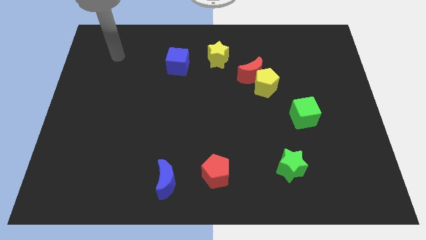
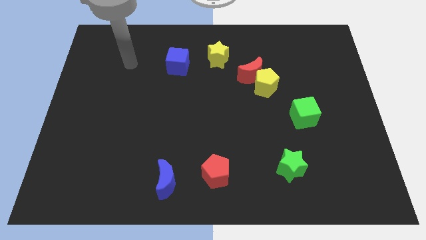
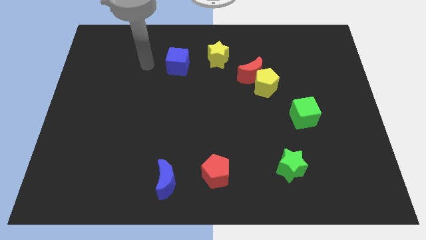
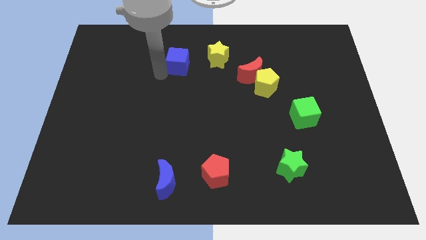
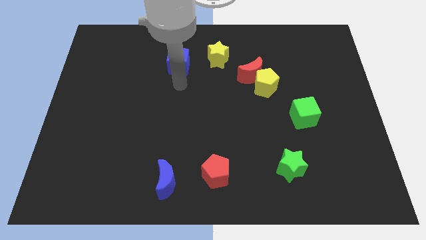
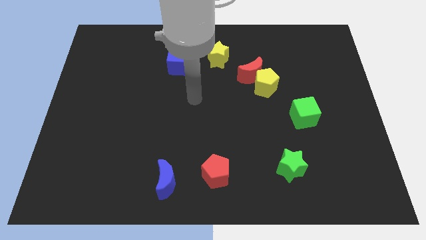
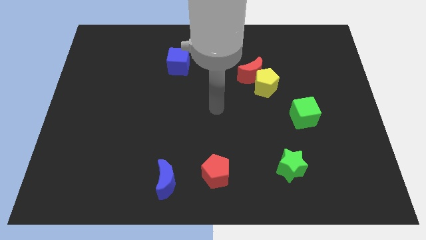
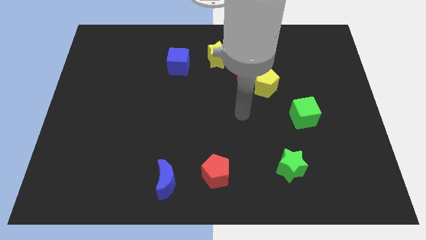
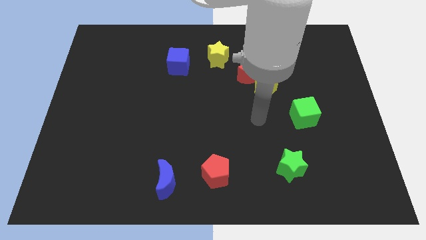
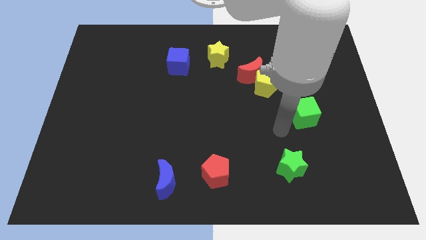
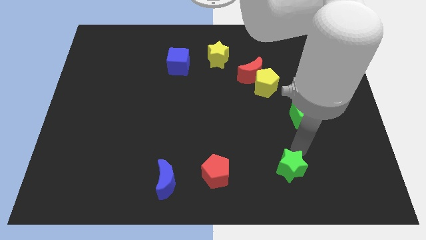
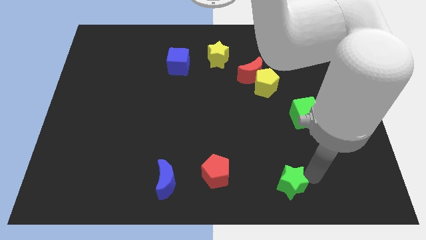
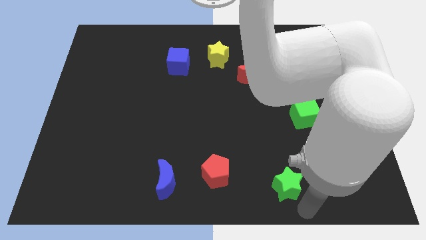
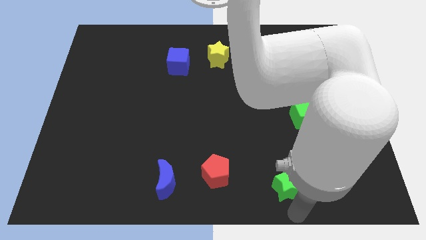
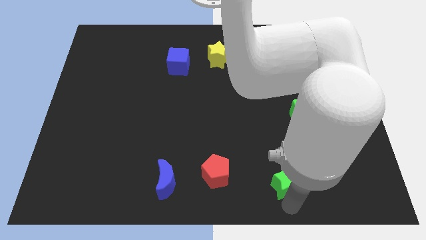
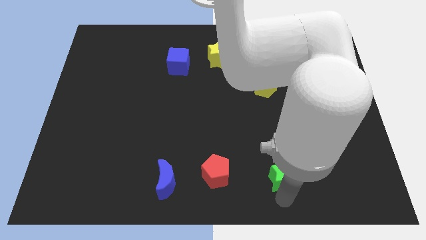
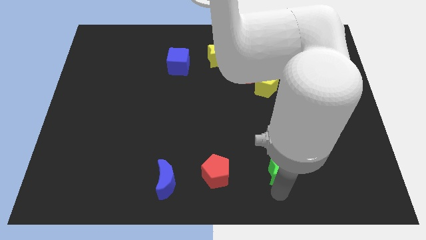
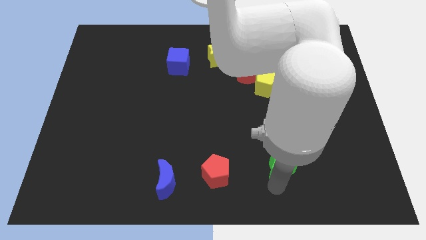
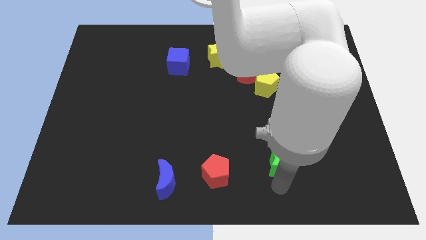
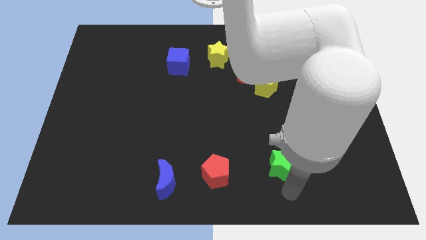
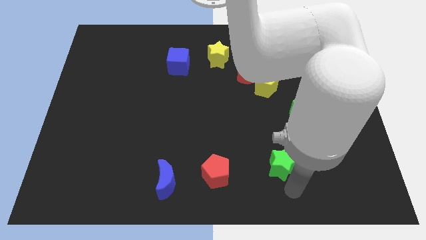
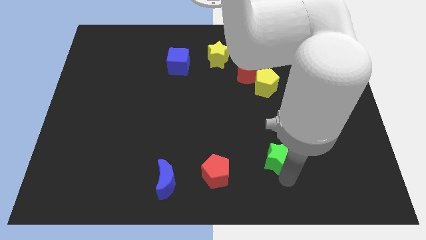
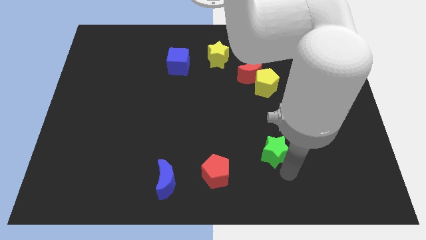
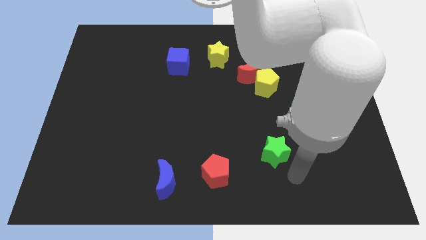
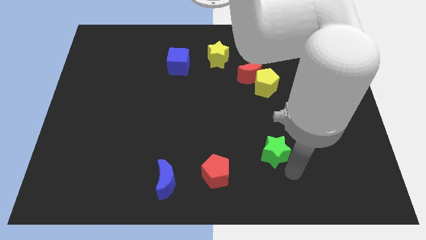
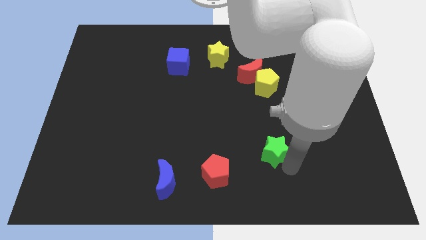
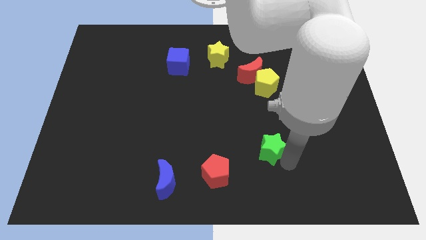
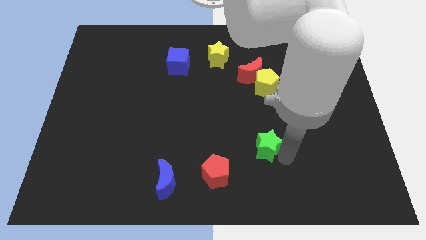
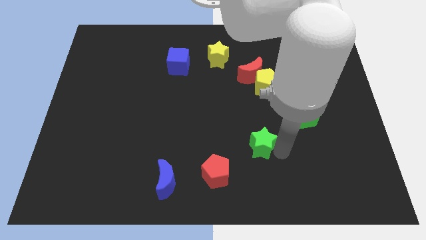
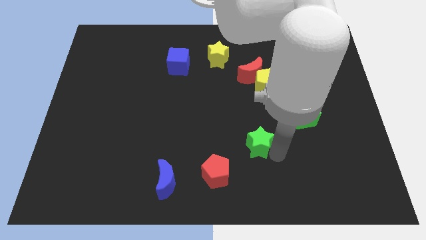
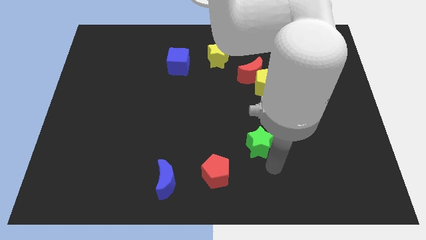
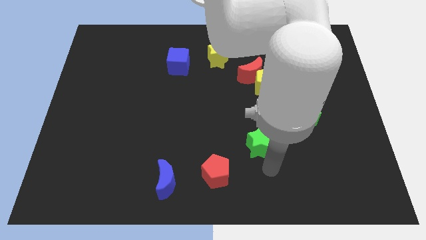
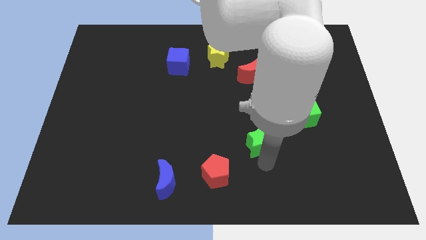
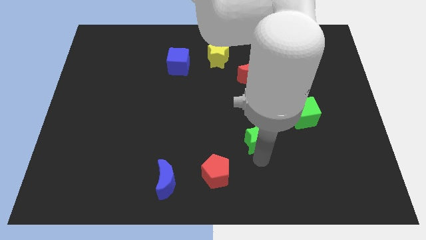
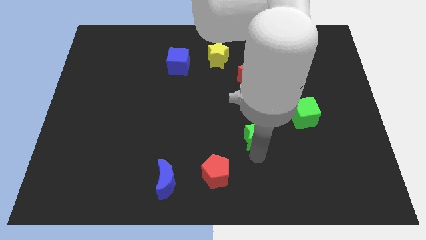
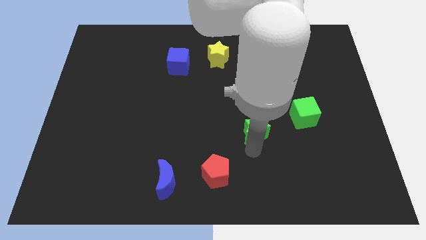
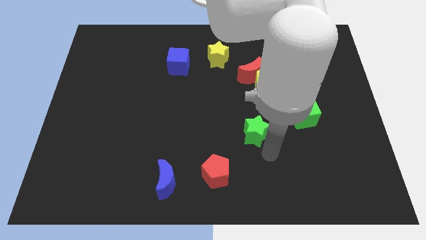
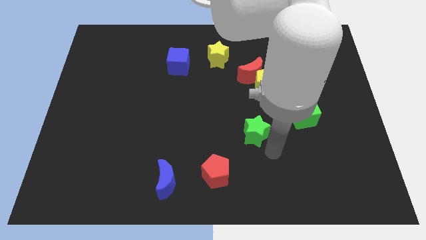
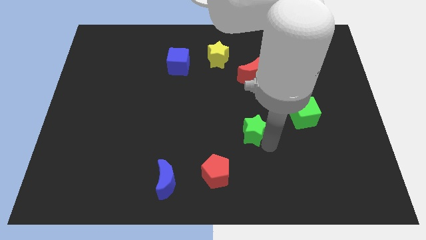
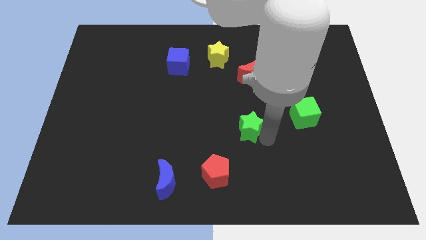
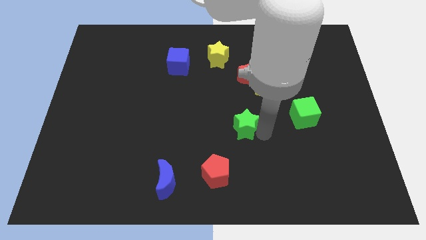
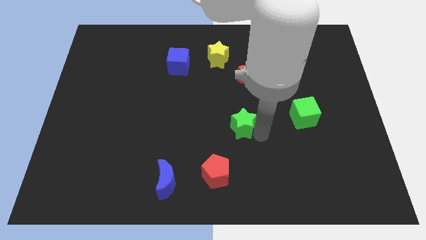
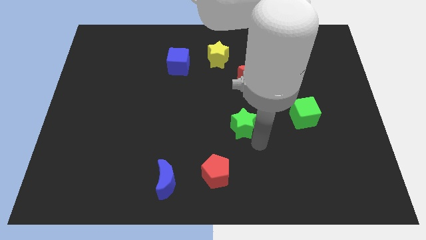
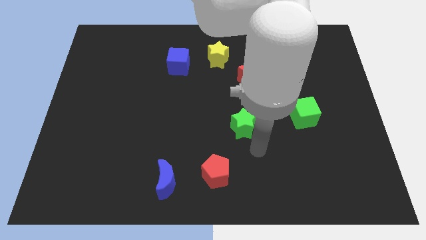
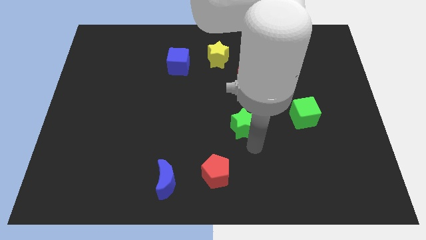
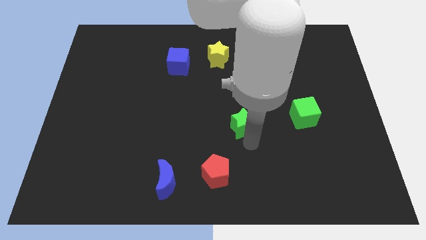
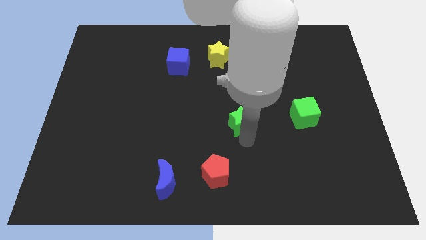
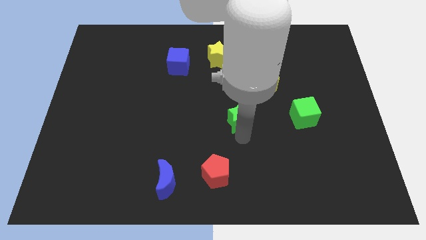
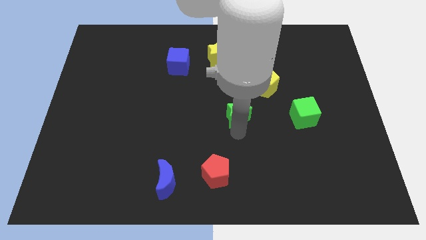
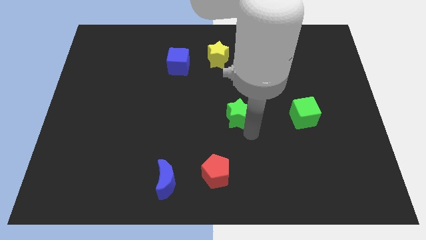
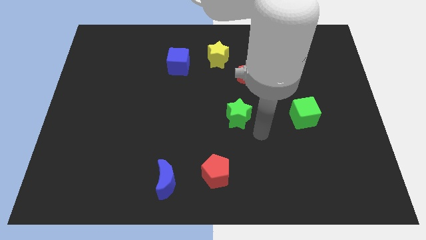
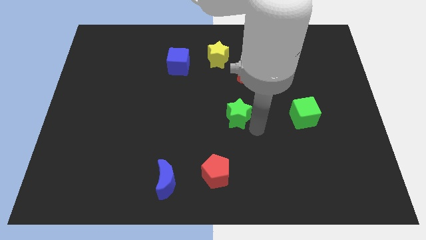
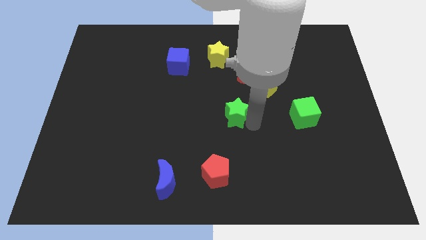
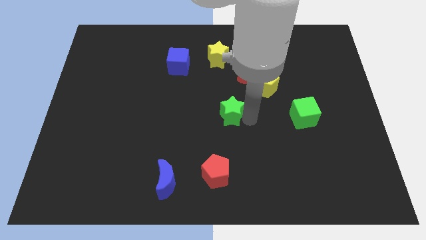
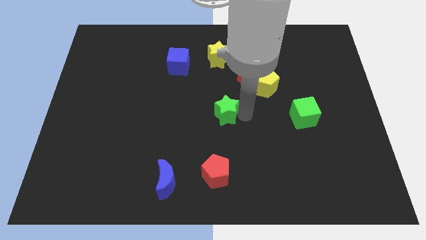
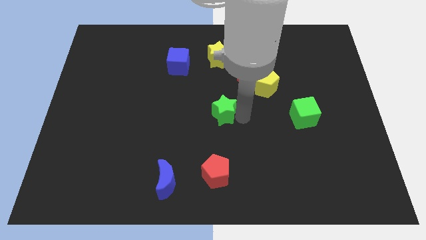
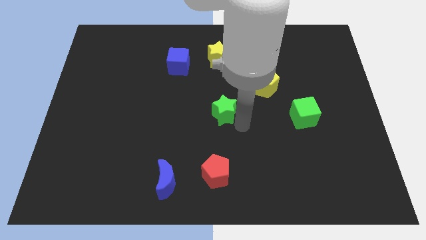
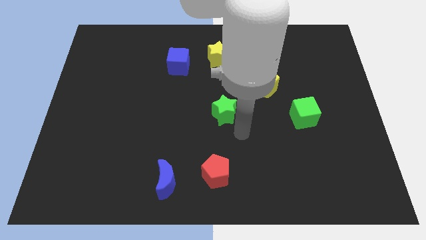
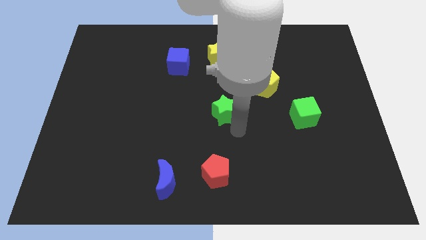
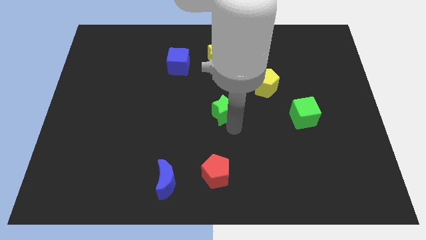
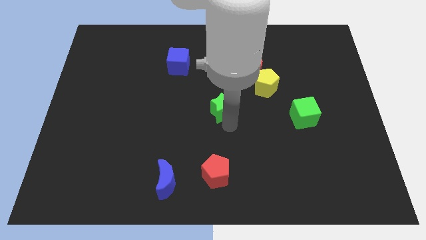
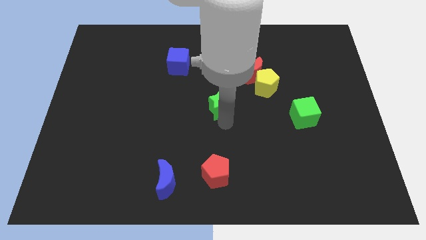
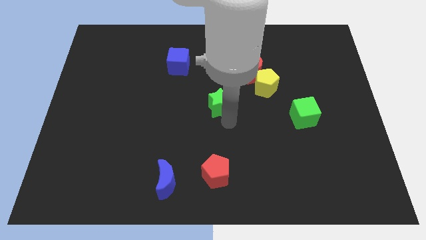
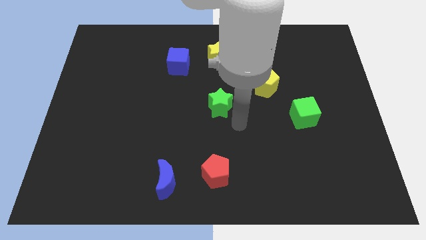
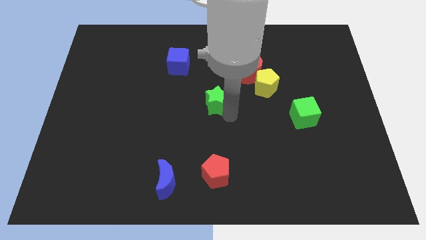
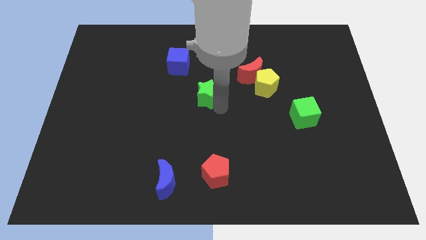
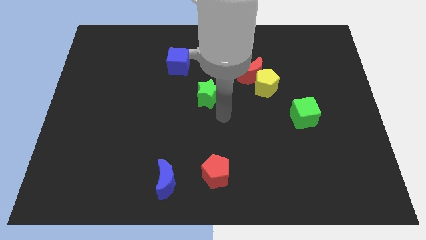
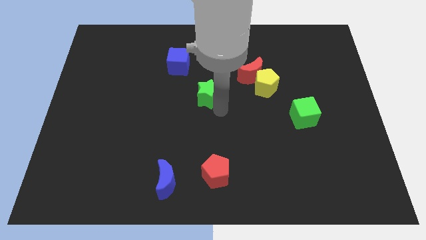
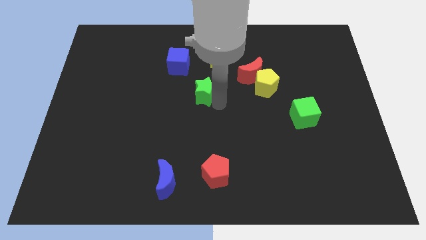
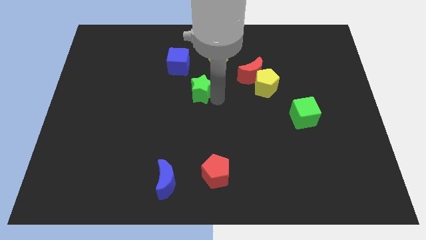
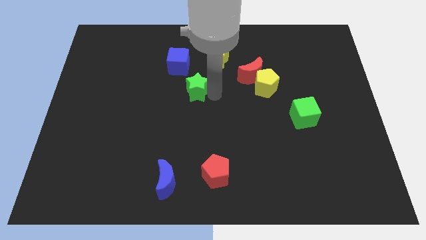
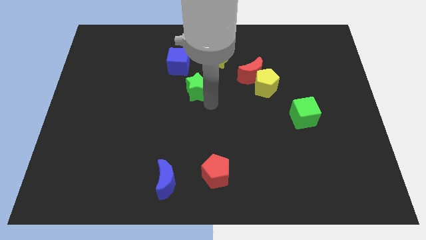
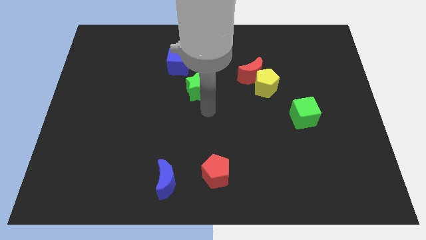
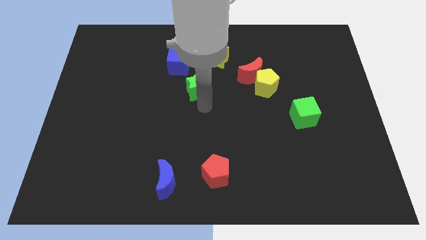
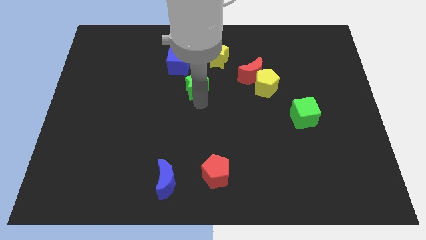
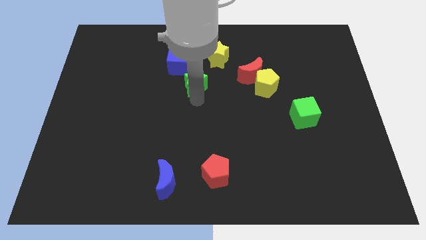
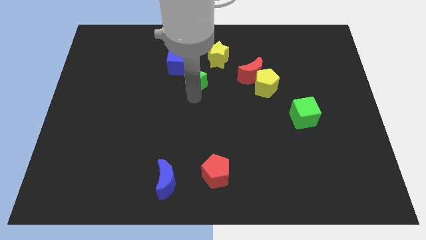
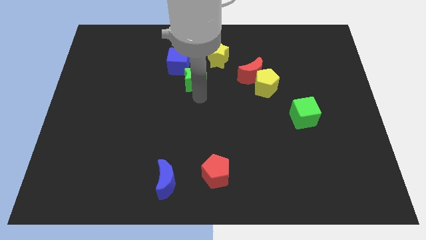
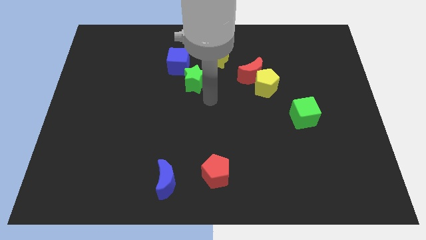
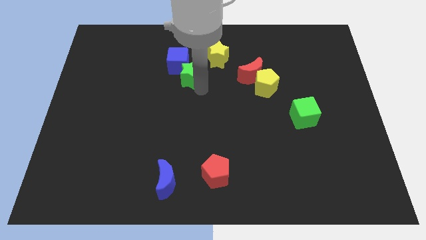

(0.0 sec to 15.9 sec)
slide the green star towards the blue cube
